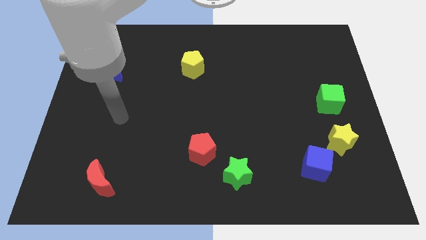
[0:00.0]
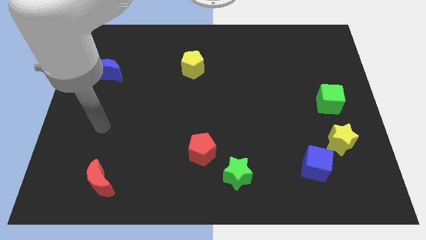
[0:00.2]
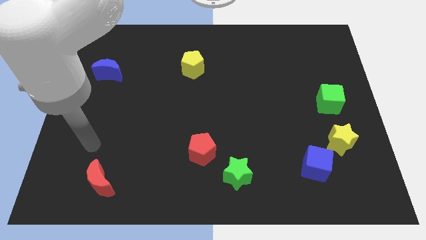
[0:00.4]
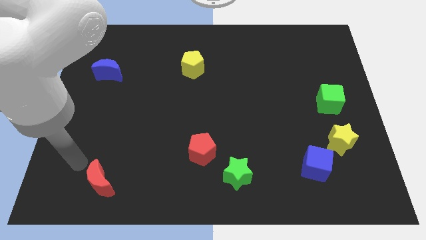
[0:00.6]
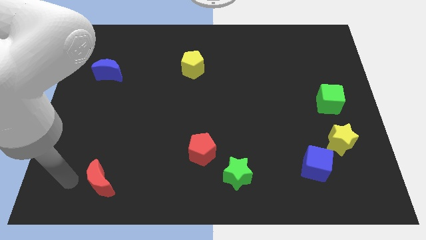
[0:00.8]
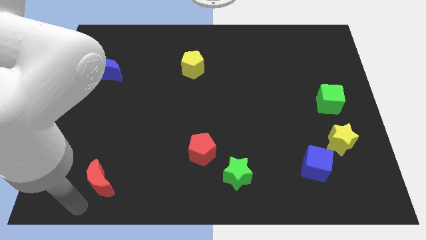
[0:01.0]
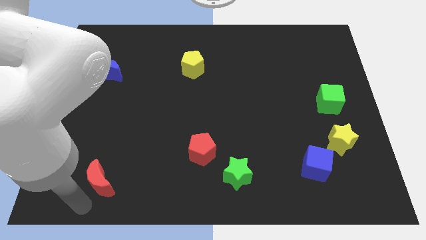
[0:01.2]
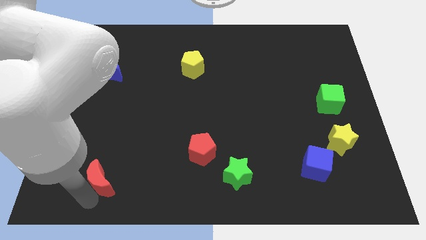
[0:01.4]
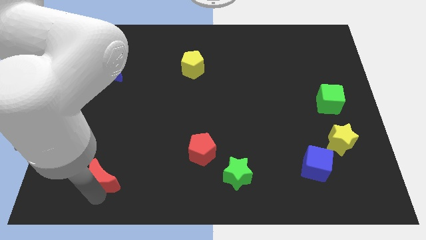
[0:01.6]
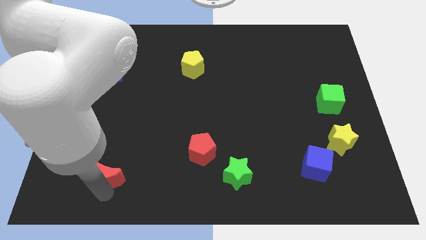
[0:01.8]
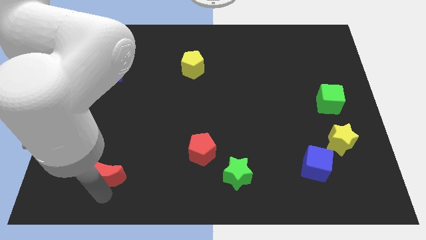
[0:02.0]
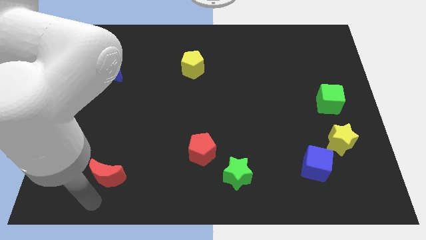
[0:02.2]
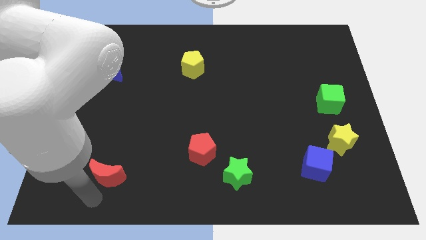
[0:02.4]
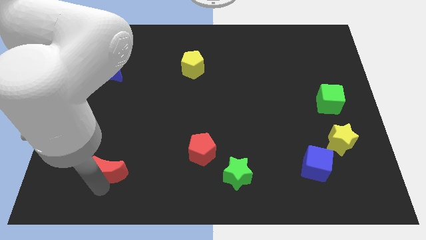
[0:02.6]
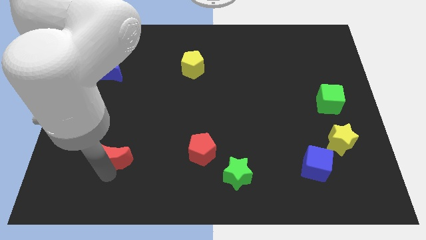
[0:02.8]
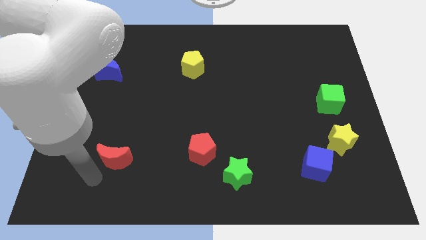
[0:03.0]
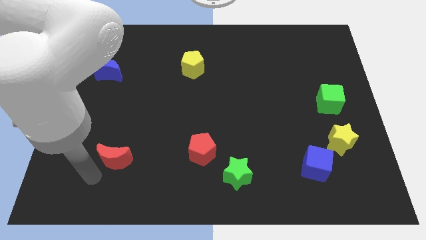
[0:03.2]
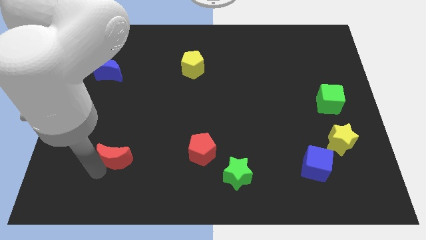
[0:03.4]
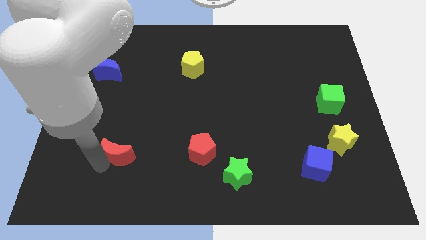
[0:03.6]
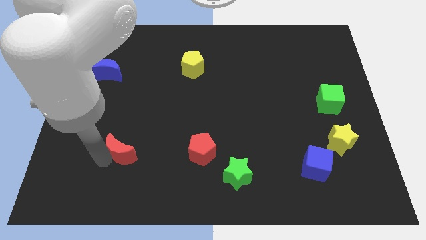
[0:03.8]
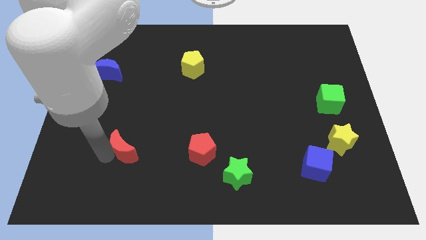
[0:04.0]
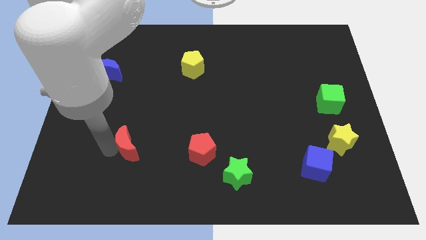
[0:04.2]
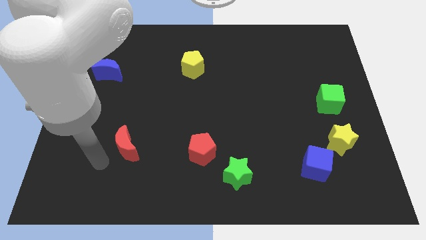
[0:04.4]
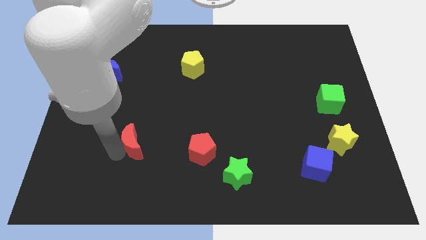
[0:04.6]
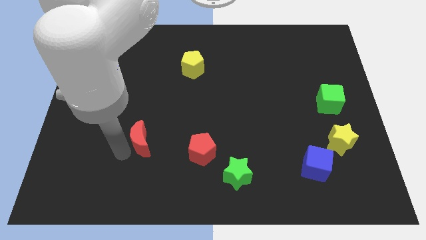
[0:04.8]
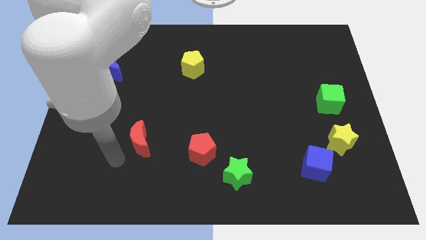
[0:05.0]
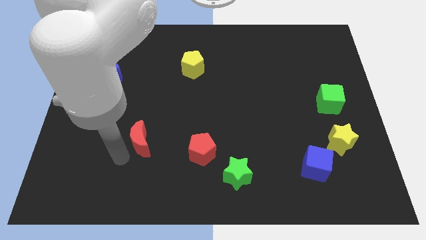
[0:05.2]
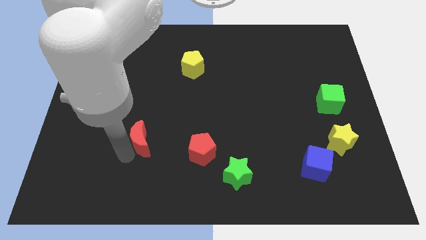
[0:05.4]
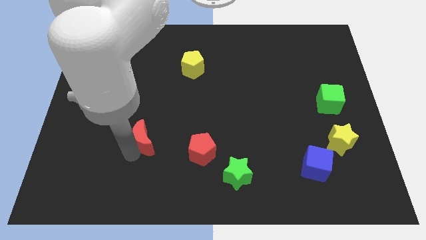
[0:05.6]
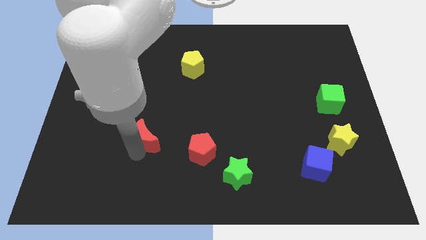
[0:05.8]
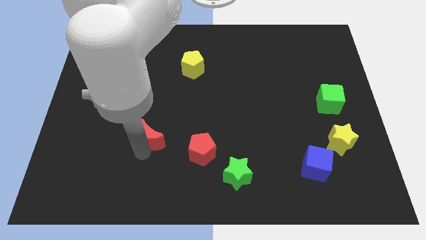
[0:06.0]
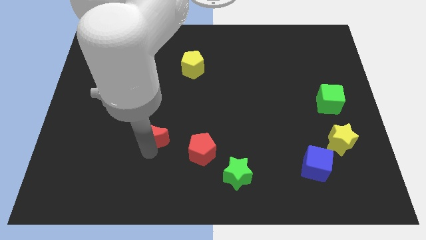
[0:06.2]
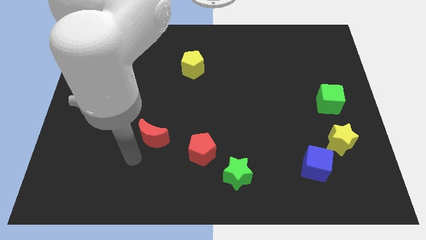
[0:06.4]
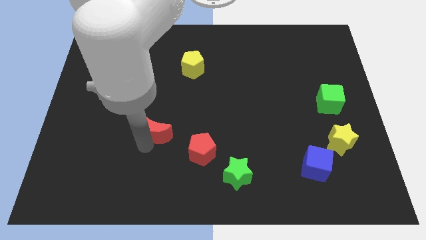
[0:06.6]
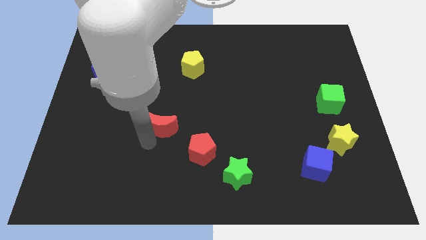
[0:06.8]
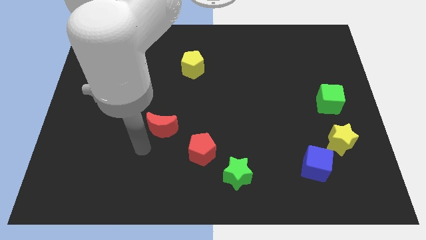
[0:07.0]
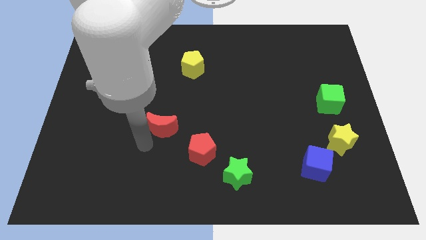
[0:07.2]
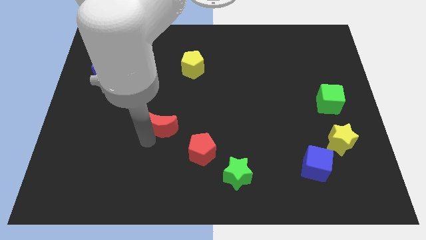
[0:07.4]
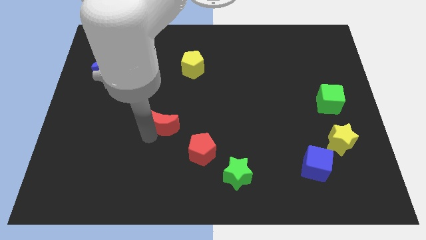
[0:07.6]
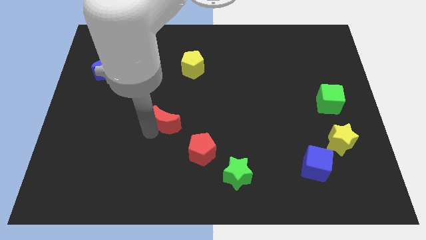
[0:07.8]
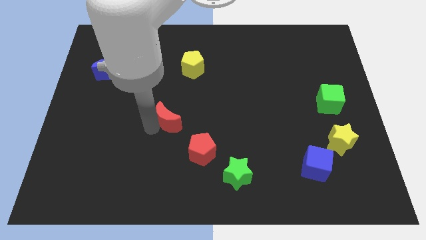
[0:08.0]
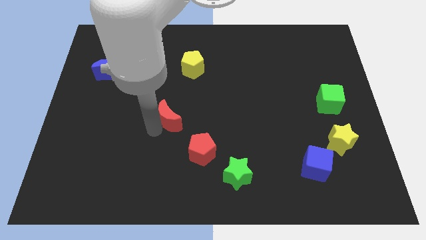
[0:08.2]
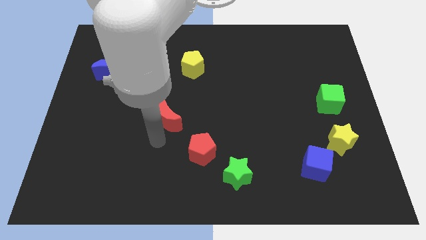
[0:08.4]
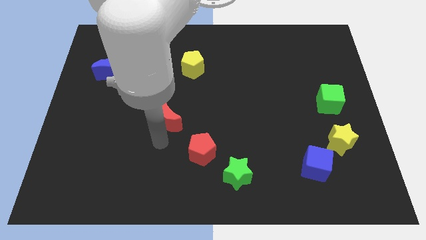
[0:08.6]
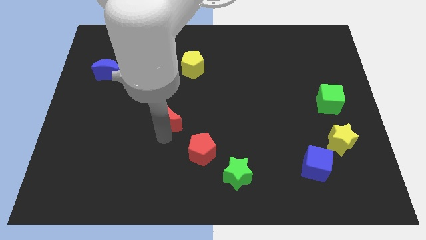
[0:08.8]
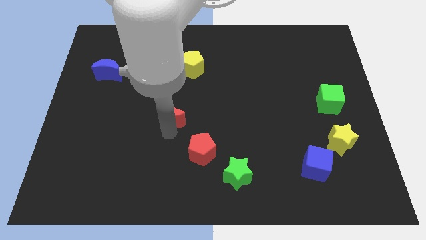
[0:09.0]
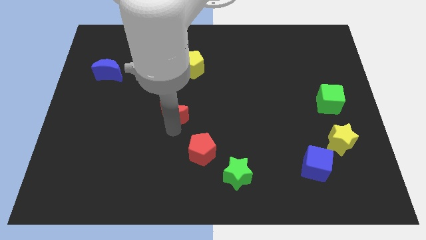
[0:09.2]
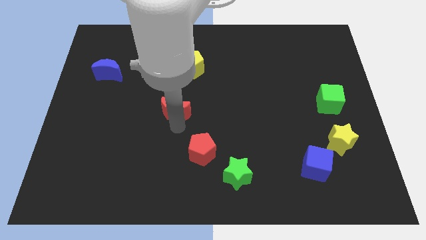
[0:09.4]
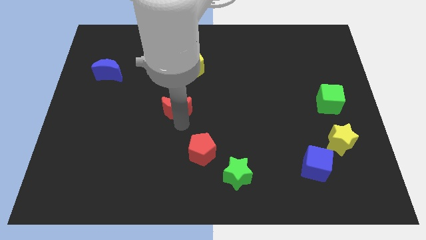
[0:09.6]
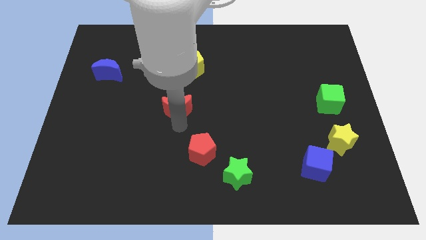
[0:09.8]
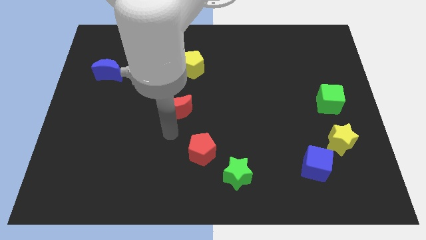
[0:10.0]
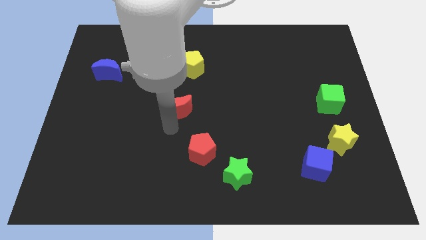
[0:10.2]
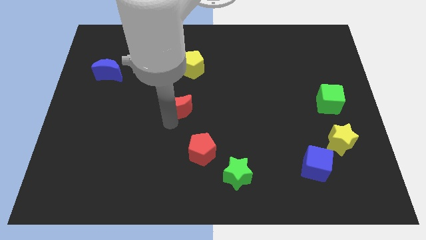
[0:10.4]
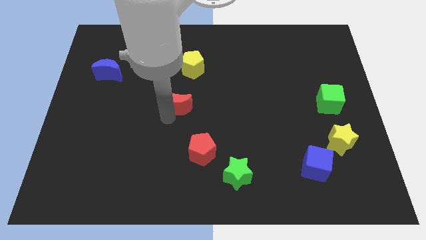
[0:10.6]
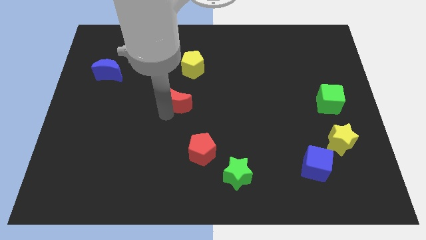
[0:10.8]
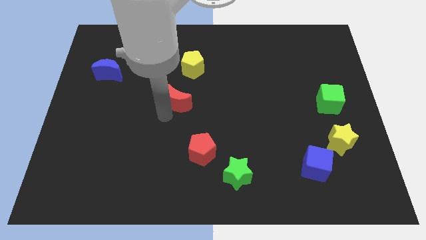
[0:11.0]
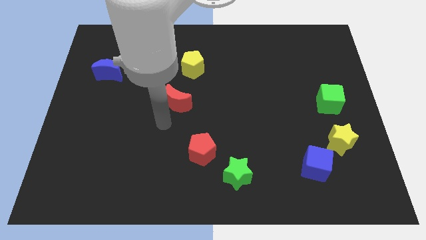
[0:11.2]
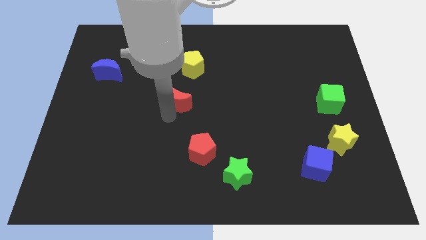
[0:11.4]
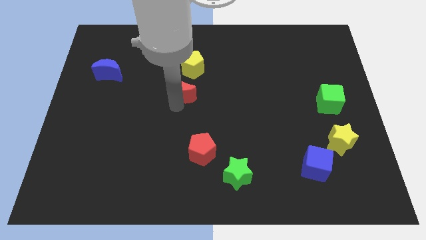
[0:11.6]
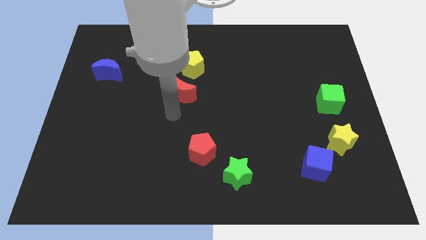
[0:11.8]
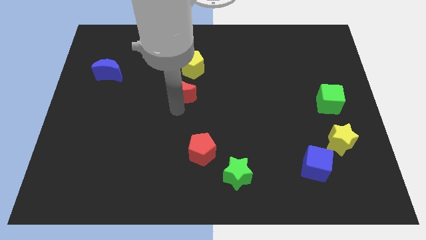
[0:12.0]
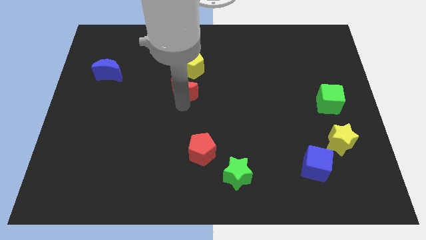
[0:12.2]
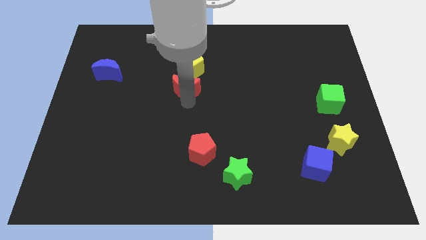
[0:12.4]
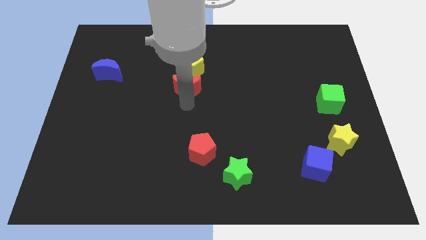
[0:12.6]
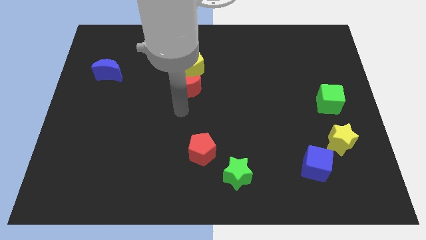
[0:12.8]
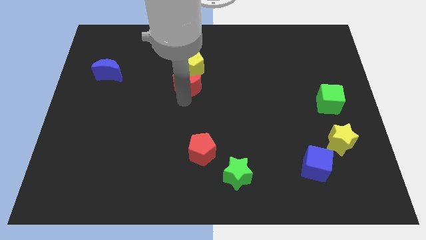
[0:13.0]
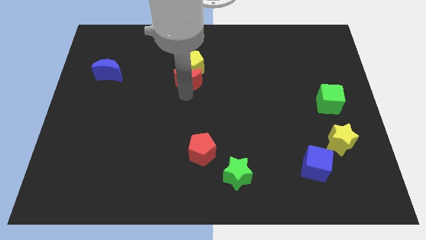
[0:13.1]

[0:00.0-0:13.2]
put the red moon close to the yellow pentagon

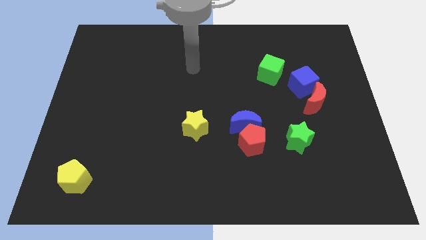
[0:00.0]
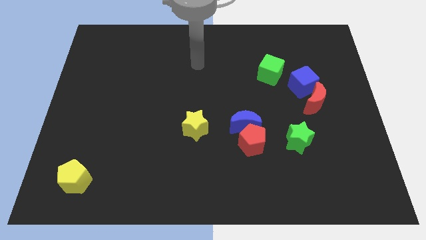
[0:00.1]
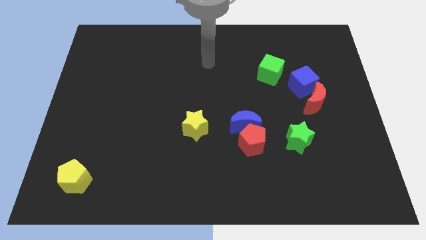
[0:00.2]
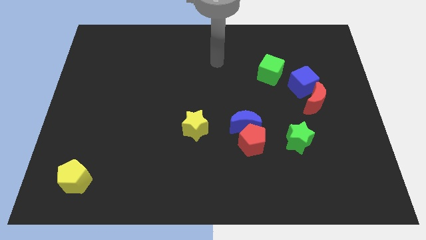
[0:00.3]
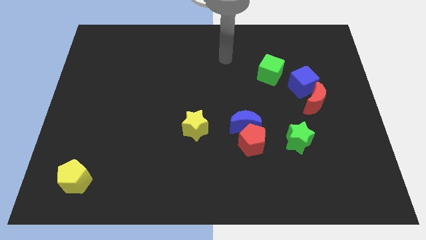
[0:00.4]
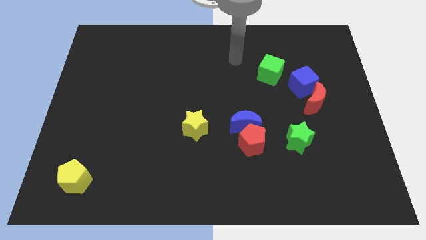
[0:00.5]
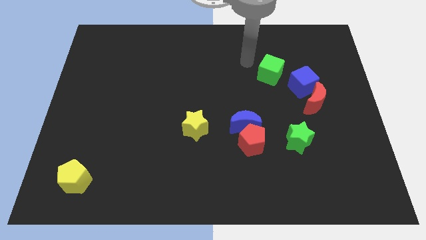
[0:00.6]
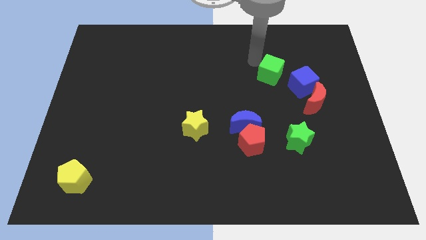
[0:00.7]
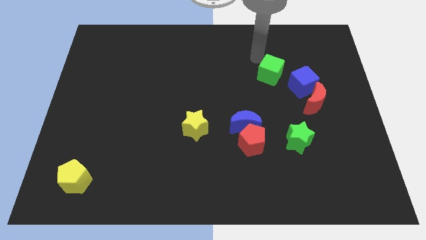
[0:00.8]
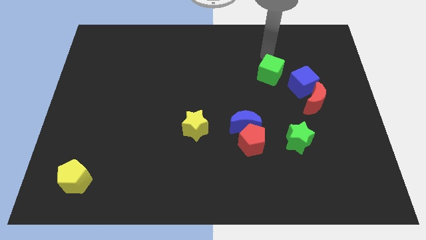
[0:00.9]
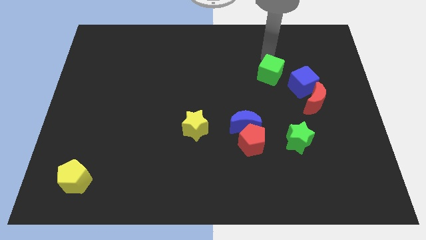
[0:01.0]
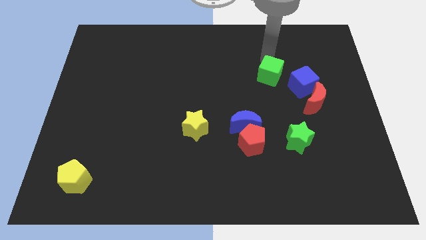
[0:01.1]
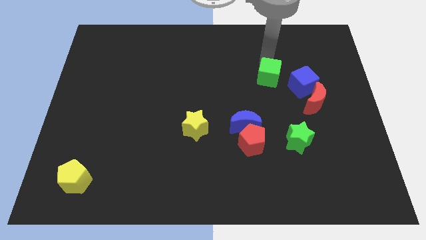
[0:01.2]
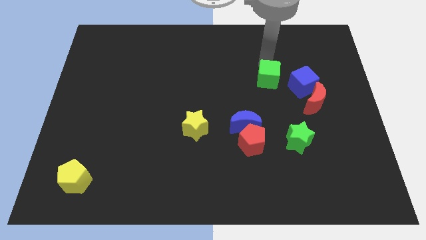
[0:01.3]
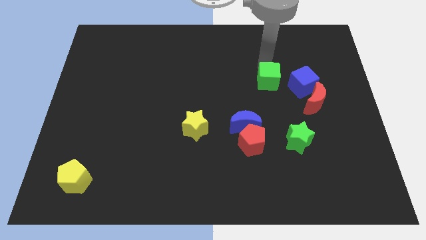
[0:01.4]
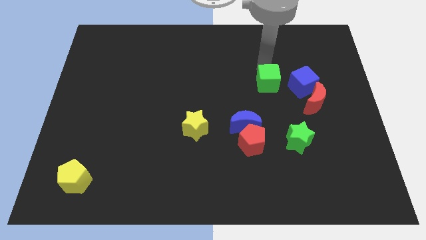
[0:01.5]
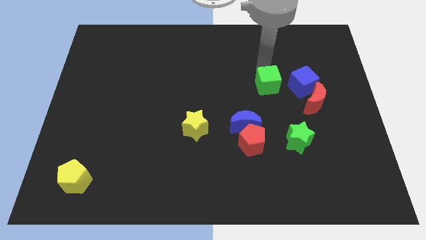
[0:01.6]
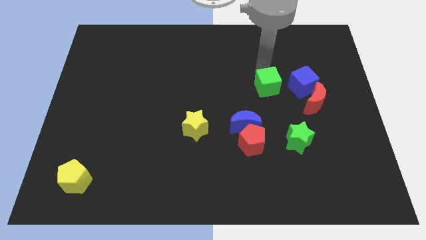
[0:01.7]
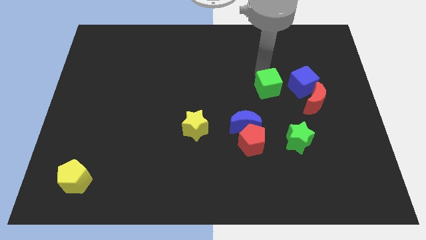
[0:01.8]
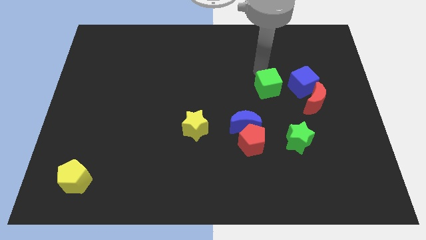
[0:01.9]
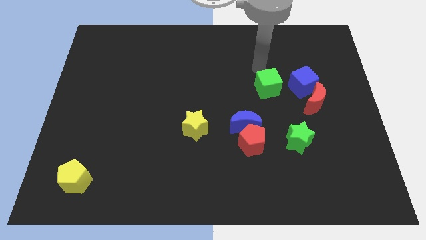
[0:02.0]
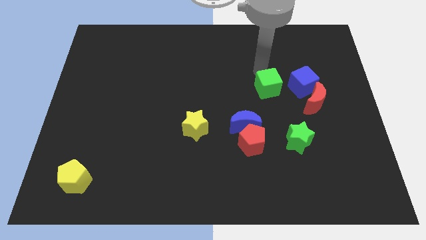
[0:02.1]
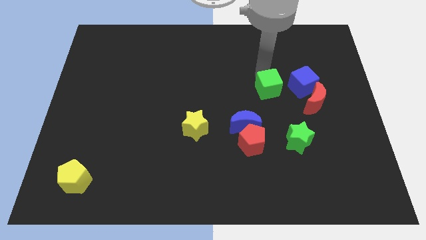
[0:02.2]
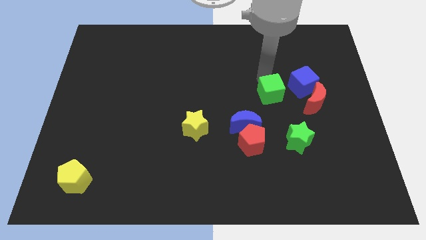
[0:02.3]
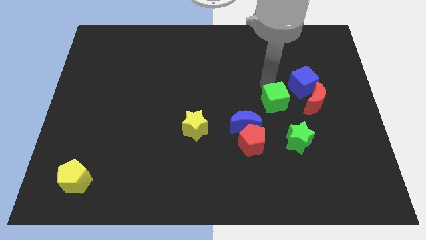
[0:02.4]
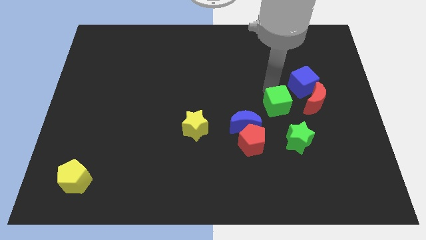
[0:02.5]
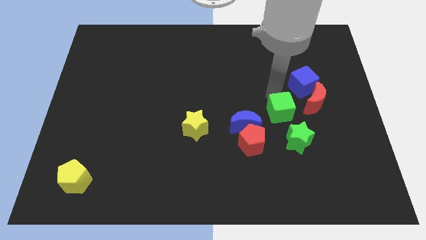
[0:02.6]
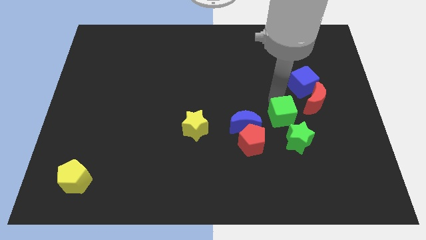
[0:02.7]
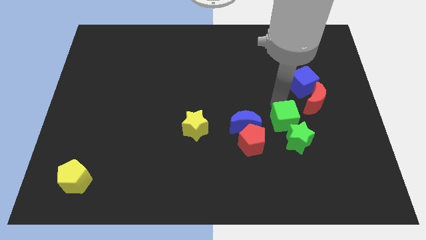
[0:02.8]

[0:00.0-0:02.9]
push the green cube next to the green star
